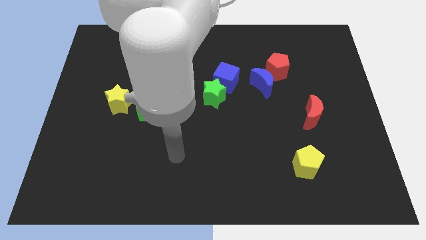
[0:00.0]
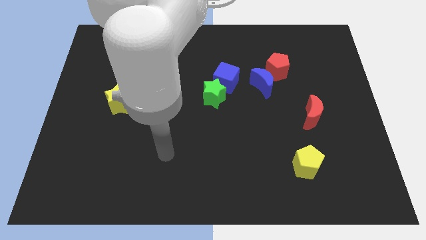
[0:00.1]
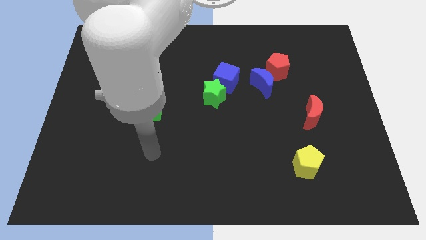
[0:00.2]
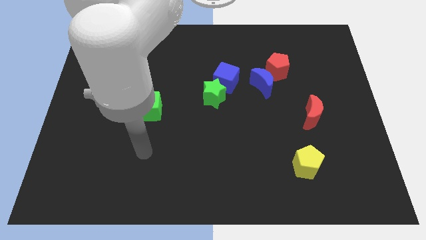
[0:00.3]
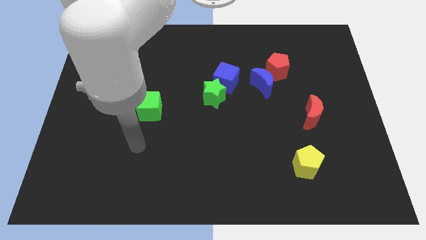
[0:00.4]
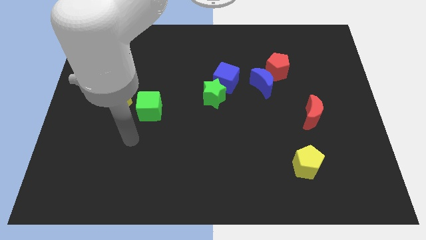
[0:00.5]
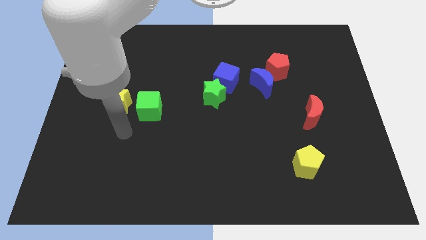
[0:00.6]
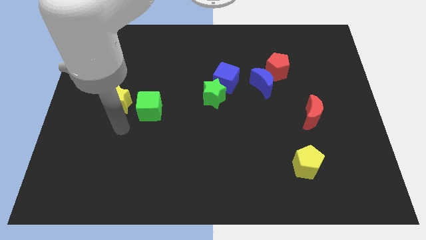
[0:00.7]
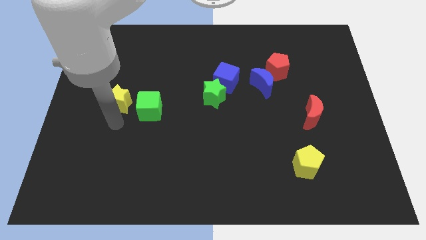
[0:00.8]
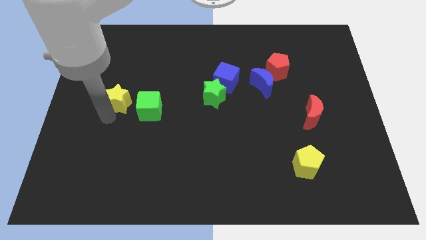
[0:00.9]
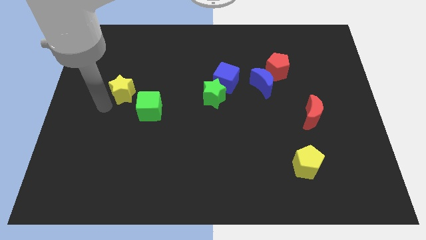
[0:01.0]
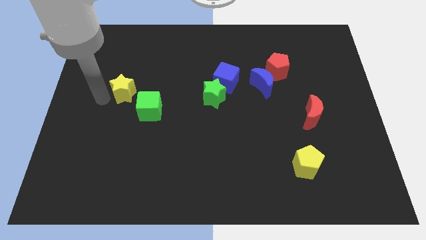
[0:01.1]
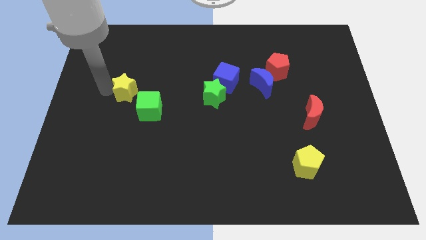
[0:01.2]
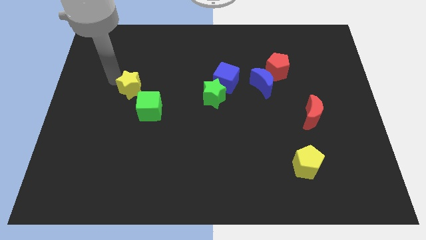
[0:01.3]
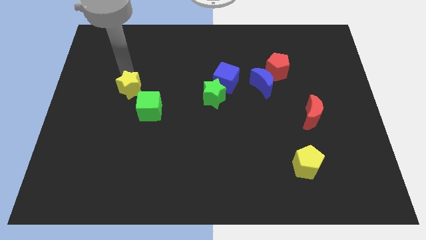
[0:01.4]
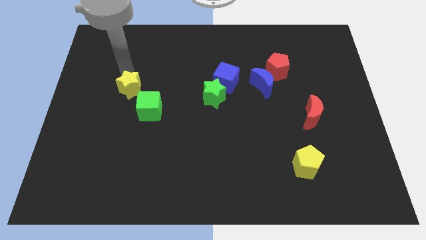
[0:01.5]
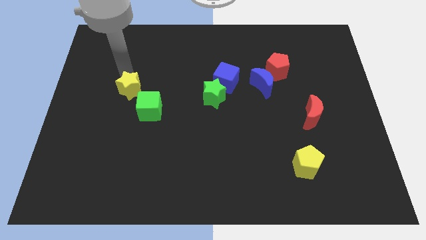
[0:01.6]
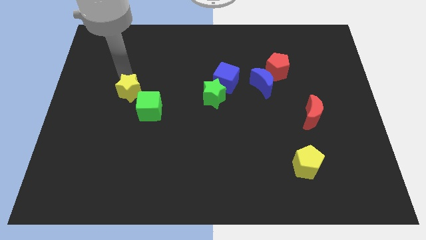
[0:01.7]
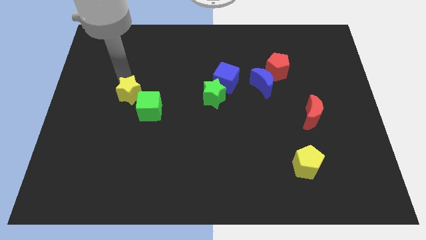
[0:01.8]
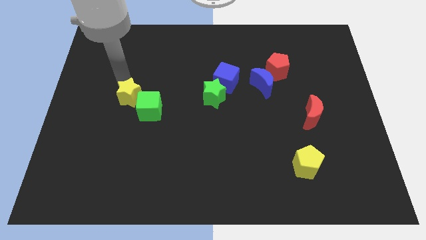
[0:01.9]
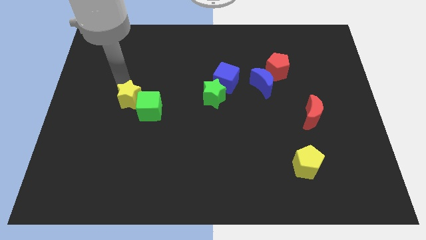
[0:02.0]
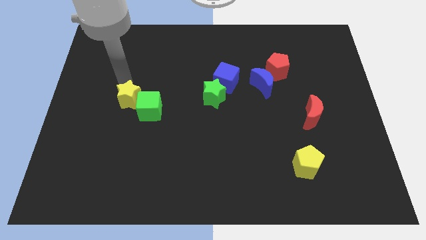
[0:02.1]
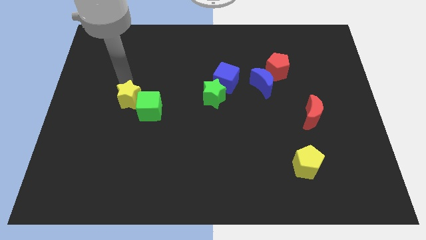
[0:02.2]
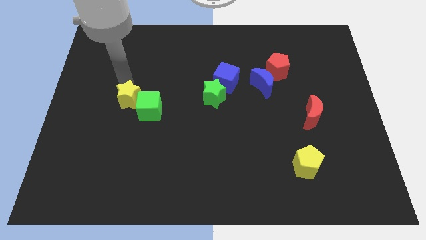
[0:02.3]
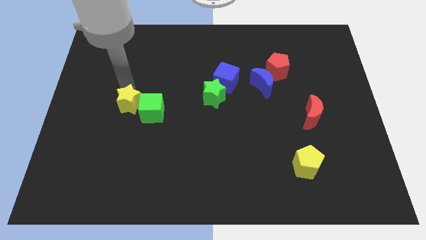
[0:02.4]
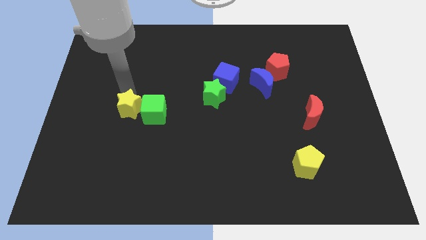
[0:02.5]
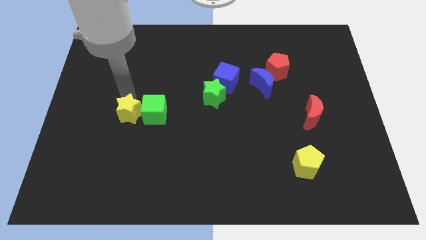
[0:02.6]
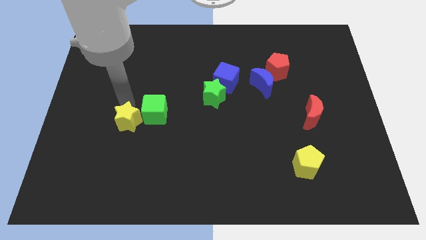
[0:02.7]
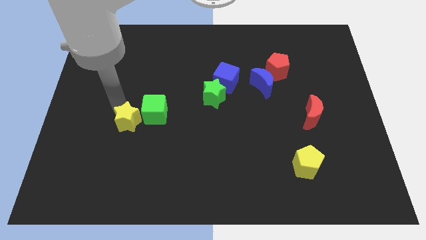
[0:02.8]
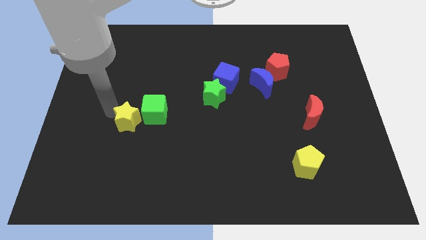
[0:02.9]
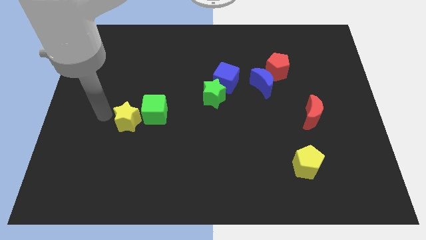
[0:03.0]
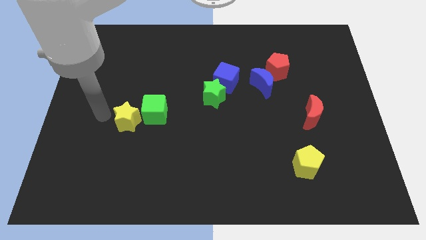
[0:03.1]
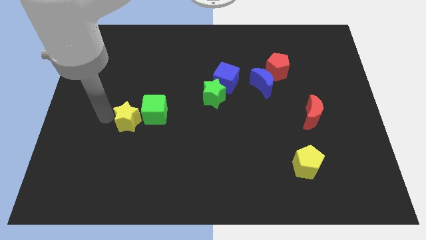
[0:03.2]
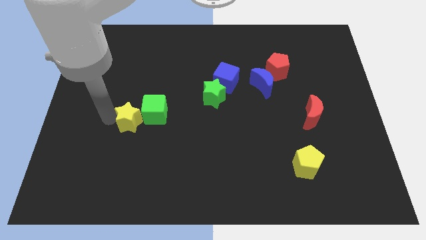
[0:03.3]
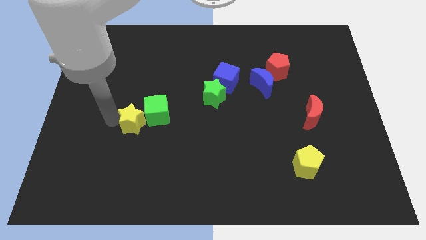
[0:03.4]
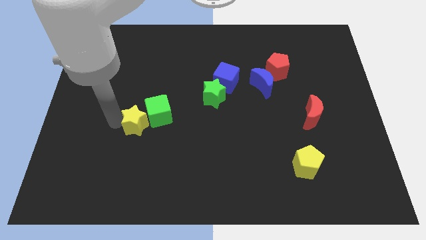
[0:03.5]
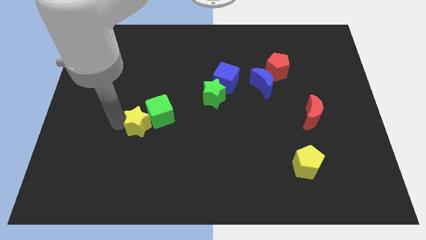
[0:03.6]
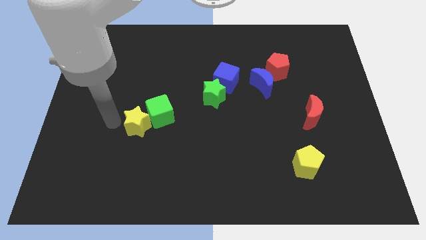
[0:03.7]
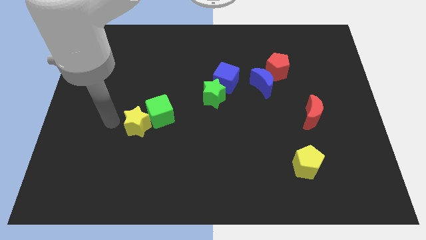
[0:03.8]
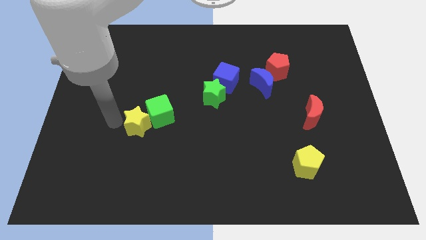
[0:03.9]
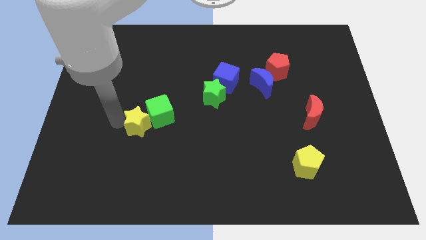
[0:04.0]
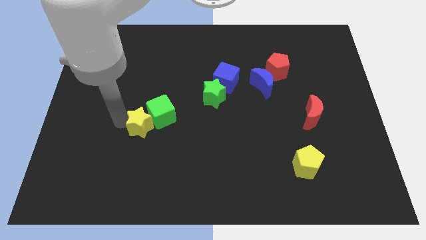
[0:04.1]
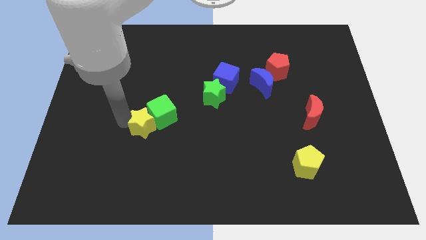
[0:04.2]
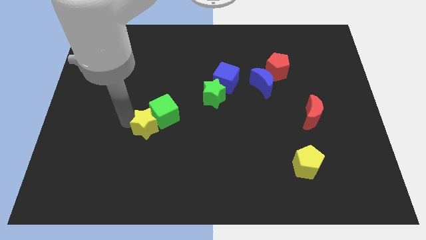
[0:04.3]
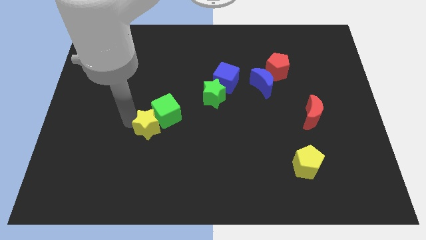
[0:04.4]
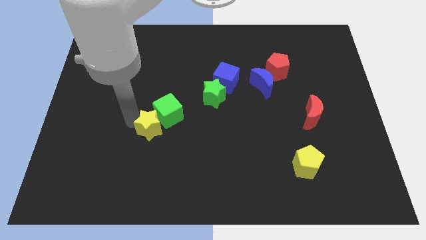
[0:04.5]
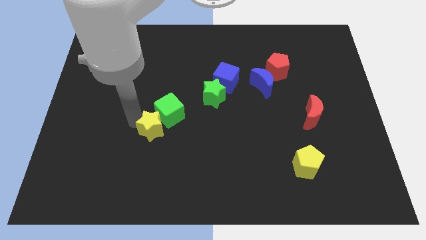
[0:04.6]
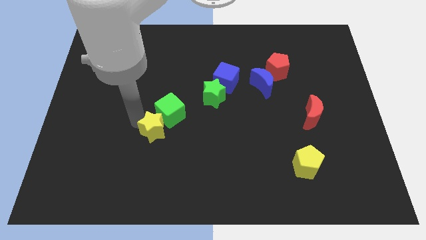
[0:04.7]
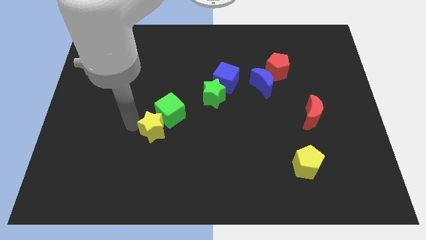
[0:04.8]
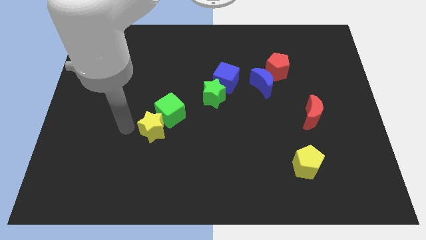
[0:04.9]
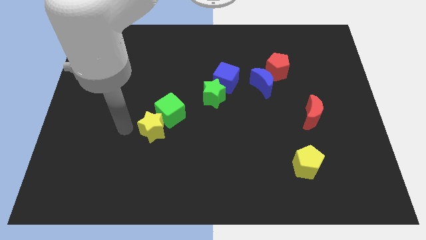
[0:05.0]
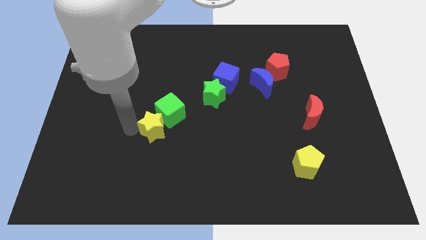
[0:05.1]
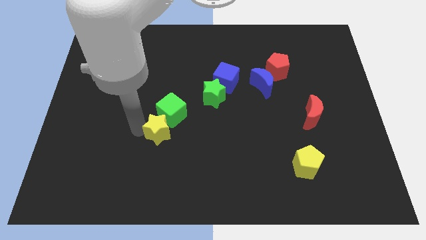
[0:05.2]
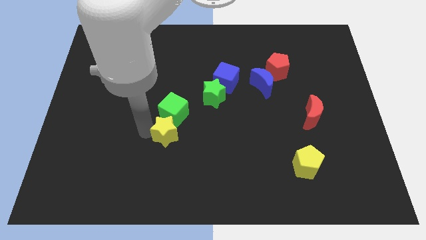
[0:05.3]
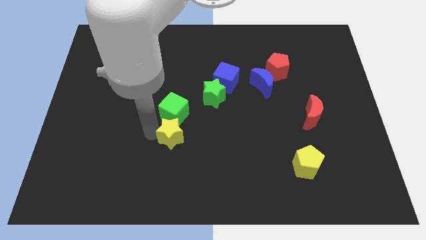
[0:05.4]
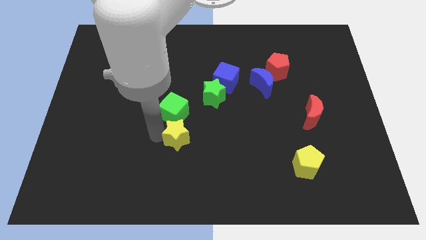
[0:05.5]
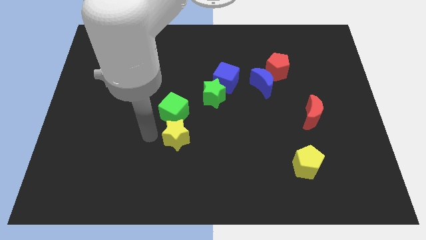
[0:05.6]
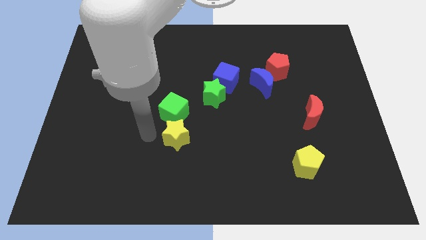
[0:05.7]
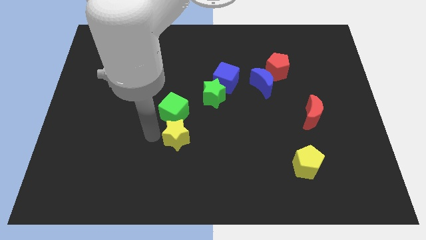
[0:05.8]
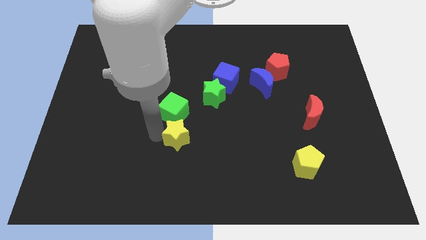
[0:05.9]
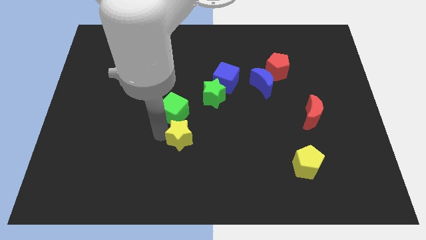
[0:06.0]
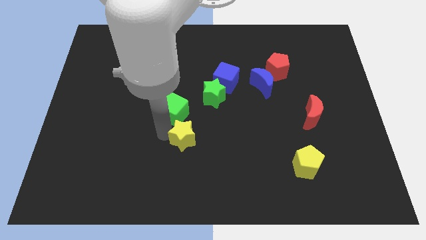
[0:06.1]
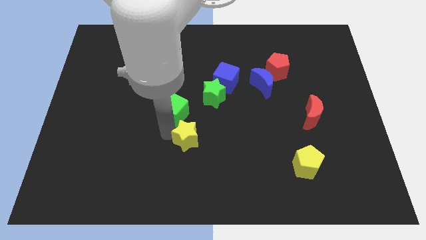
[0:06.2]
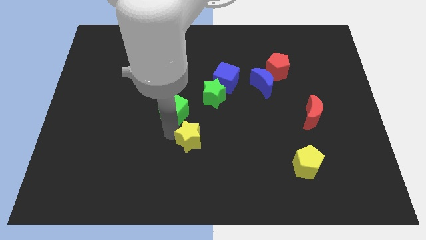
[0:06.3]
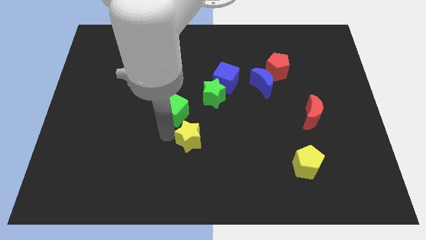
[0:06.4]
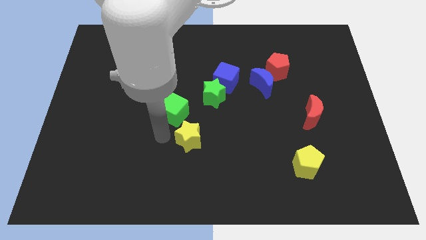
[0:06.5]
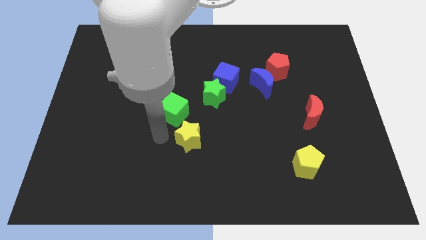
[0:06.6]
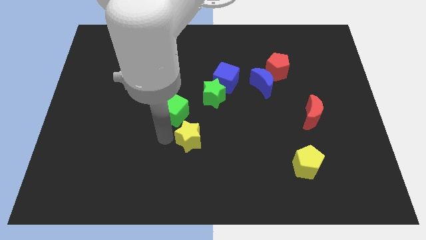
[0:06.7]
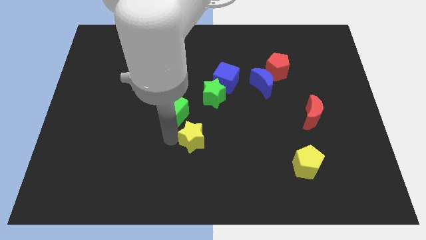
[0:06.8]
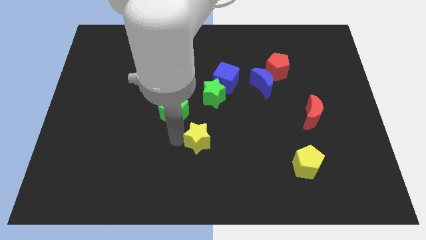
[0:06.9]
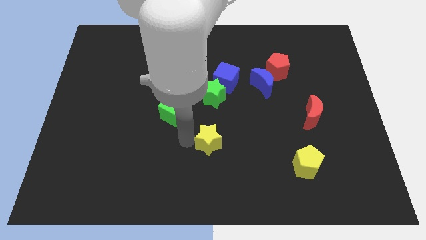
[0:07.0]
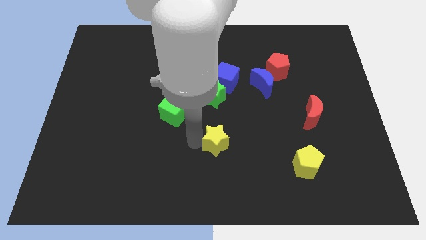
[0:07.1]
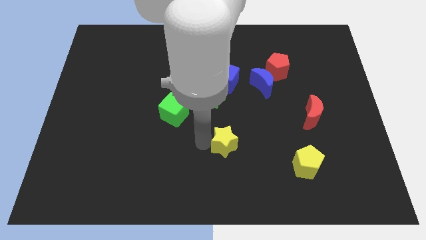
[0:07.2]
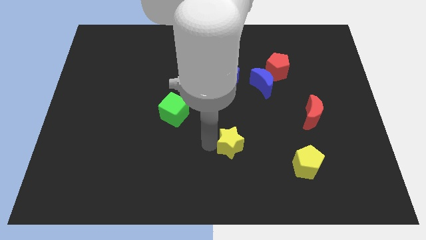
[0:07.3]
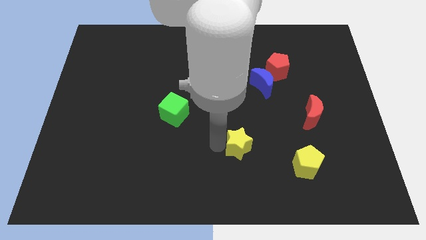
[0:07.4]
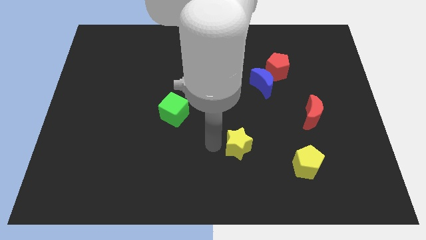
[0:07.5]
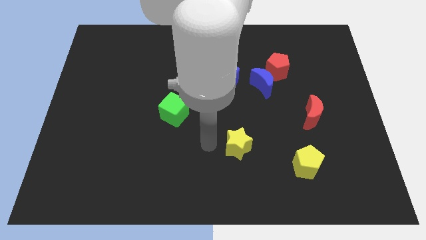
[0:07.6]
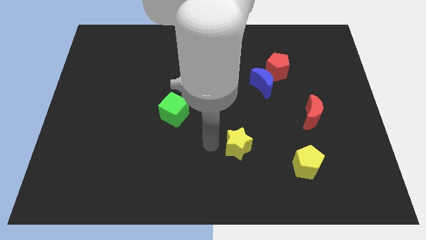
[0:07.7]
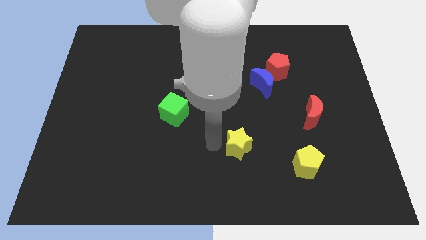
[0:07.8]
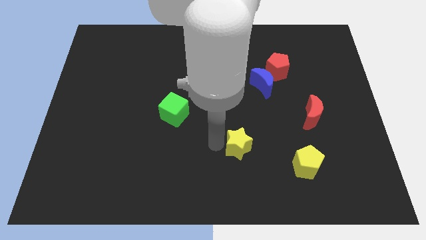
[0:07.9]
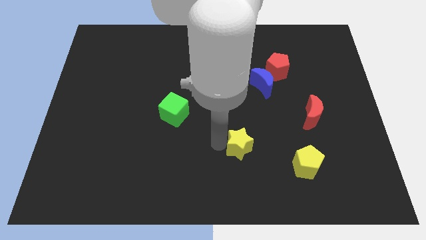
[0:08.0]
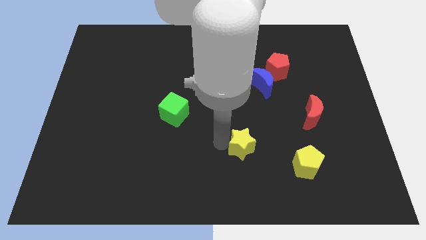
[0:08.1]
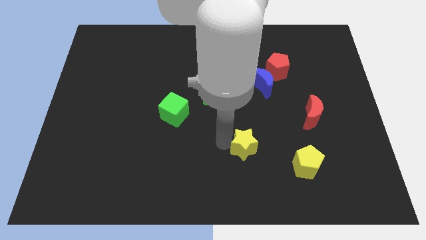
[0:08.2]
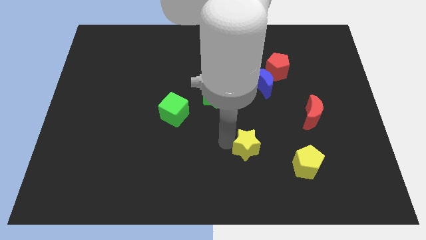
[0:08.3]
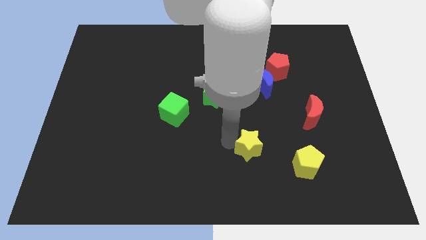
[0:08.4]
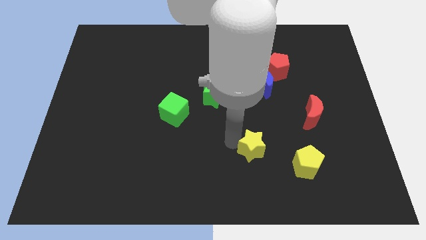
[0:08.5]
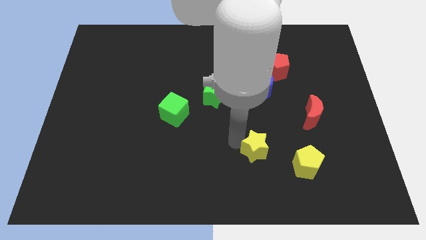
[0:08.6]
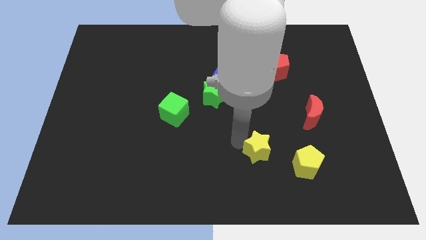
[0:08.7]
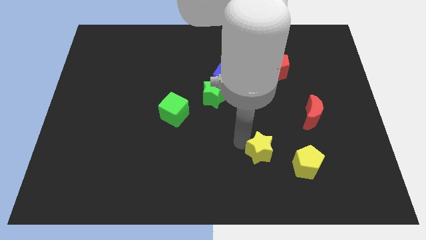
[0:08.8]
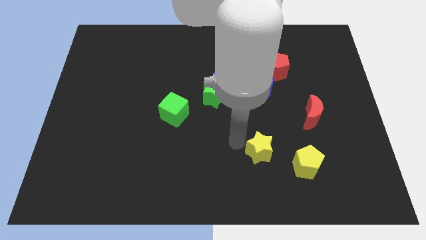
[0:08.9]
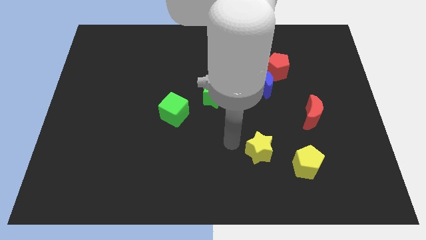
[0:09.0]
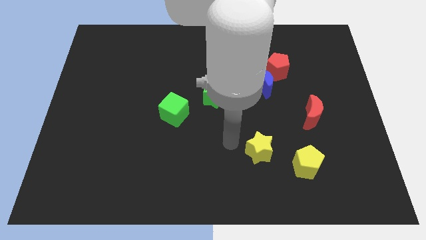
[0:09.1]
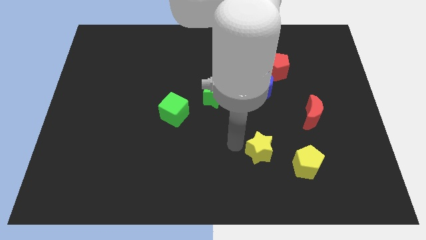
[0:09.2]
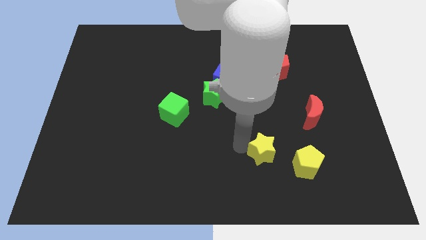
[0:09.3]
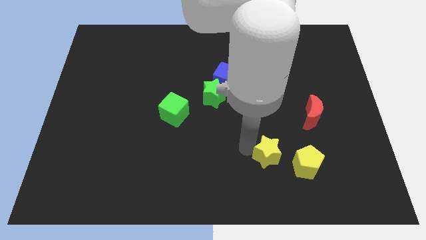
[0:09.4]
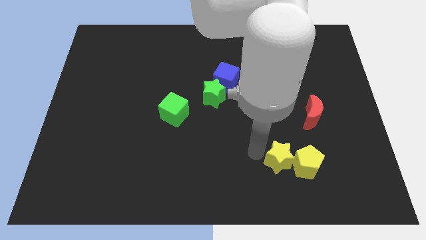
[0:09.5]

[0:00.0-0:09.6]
put the yellow star towards the yellow pentagon
